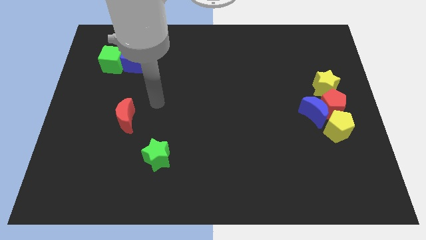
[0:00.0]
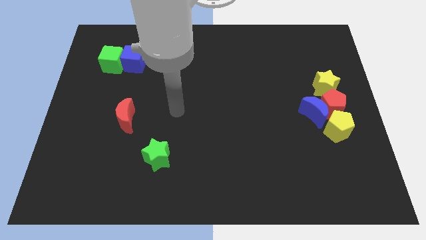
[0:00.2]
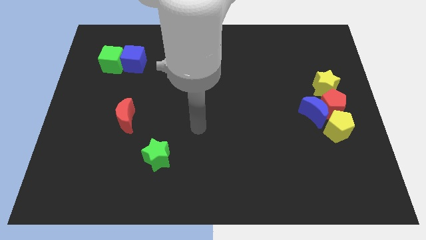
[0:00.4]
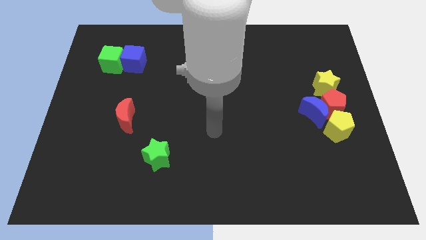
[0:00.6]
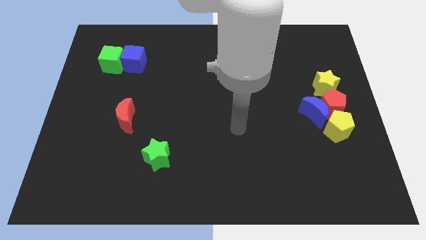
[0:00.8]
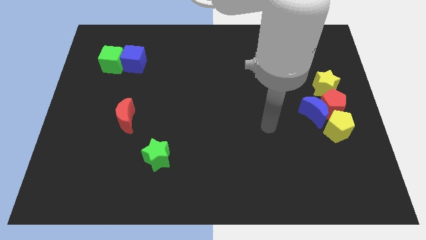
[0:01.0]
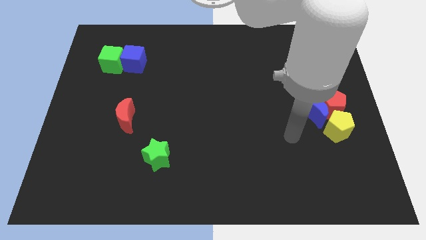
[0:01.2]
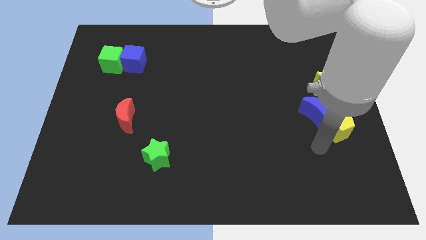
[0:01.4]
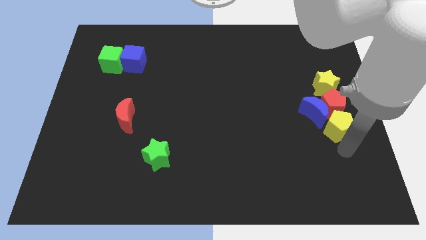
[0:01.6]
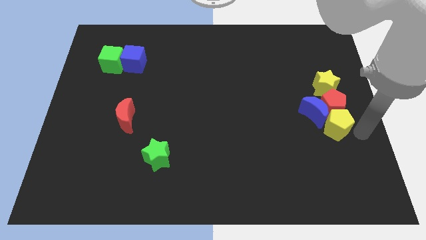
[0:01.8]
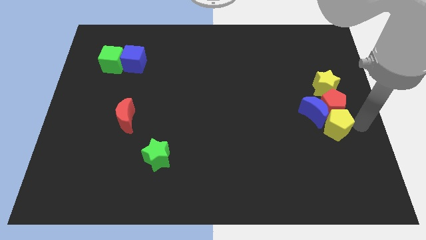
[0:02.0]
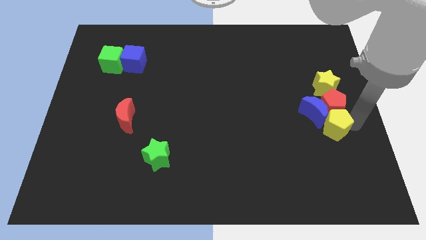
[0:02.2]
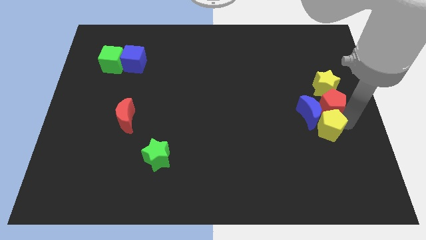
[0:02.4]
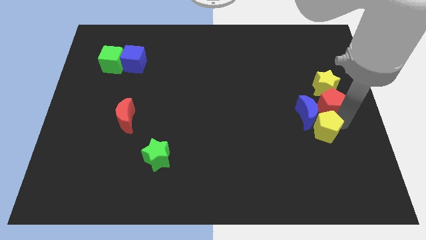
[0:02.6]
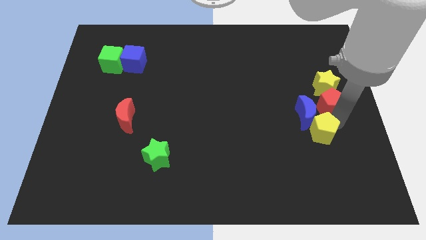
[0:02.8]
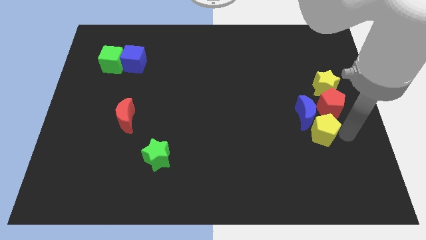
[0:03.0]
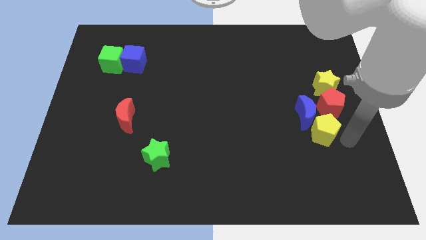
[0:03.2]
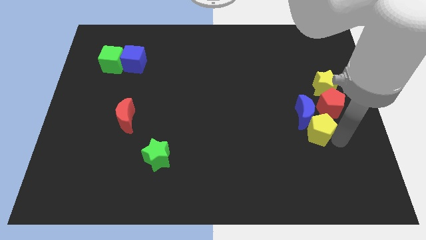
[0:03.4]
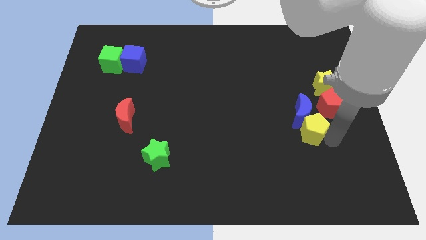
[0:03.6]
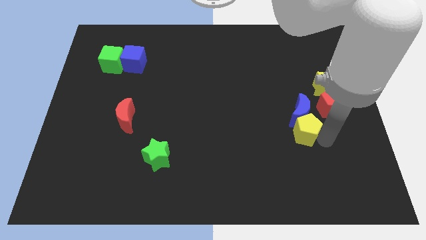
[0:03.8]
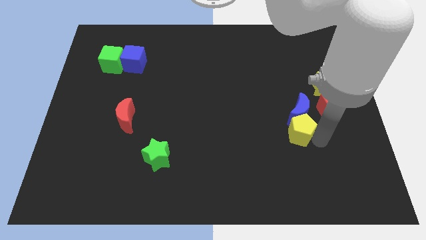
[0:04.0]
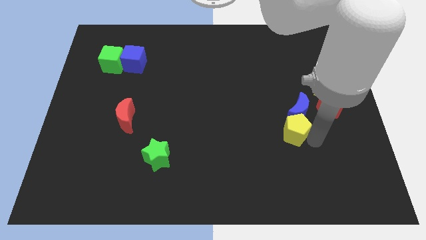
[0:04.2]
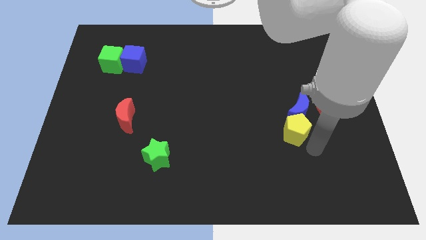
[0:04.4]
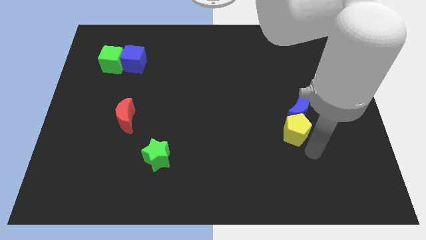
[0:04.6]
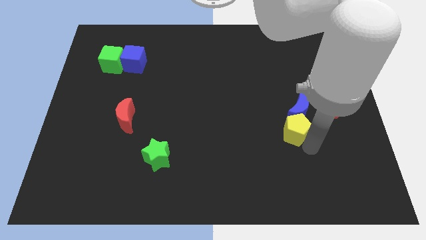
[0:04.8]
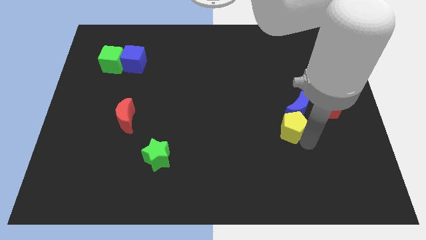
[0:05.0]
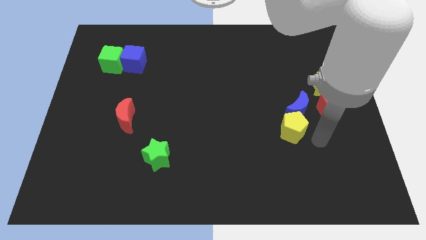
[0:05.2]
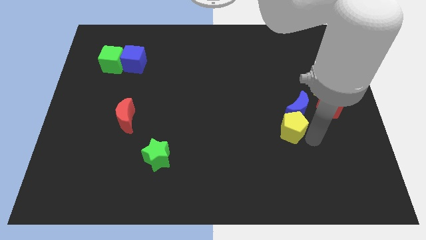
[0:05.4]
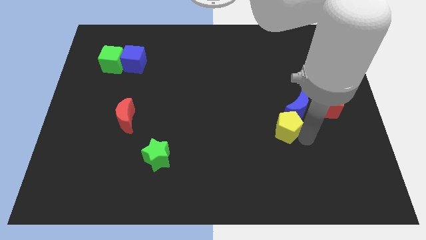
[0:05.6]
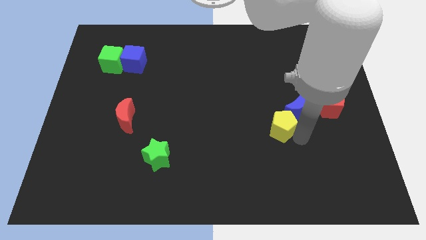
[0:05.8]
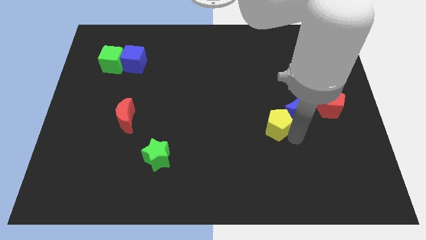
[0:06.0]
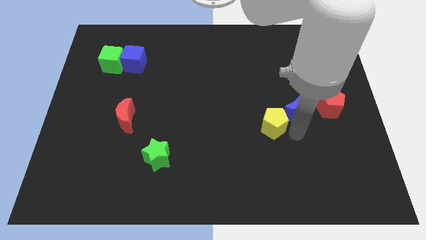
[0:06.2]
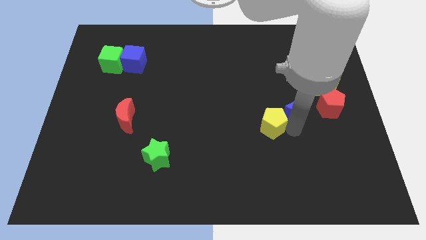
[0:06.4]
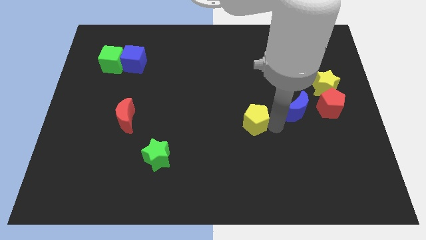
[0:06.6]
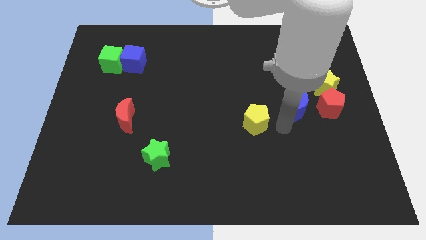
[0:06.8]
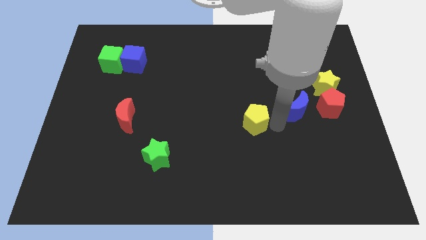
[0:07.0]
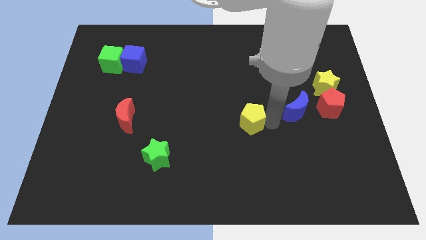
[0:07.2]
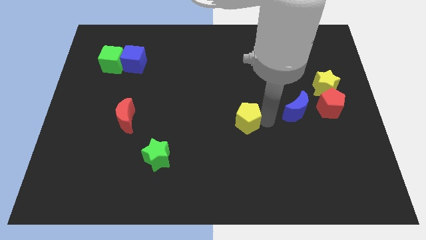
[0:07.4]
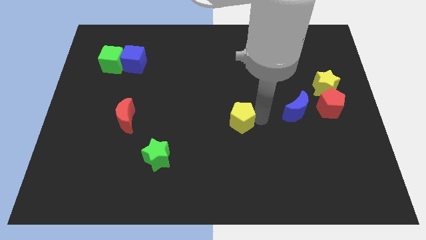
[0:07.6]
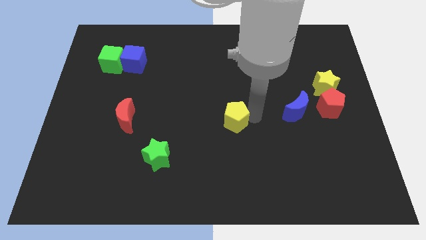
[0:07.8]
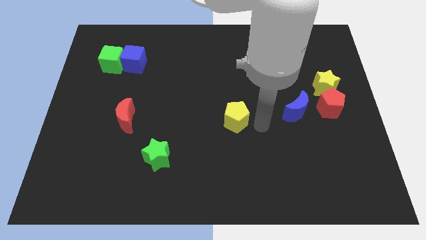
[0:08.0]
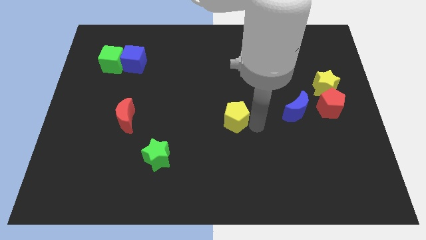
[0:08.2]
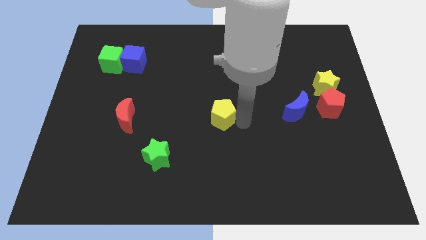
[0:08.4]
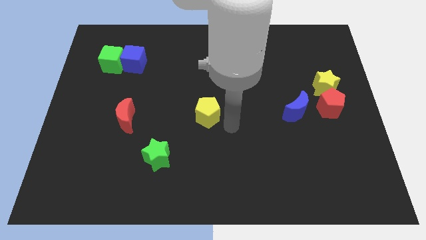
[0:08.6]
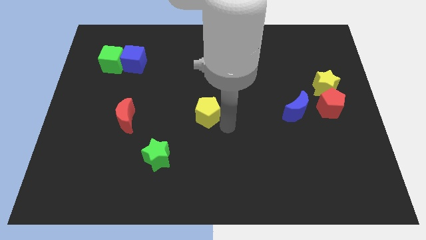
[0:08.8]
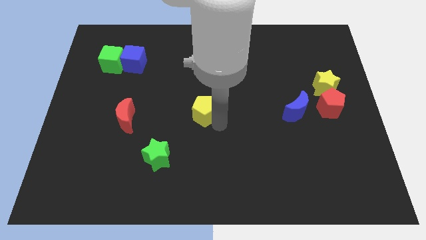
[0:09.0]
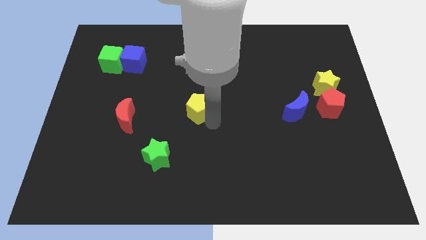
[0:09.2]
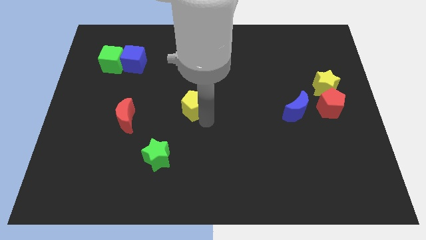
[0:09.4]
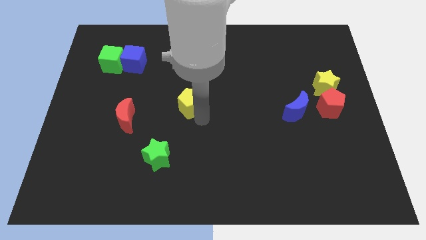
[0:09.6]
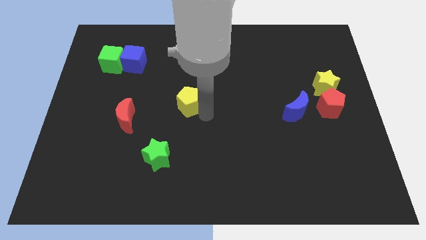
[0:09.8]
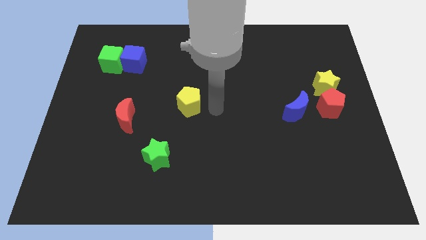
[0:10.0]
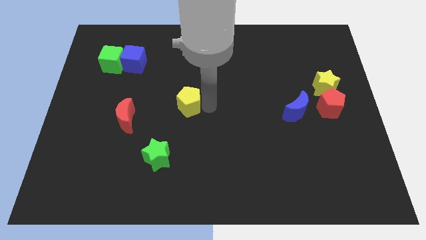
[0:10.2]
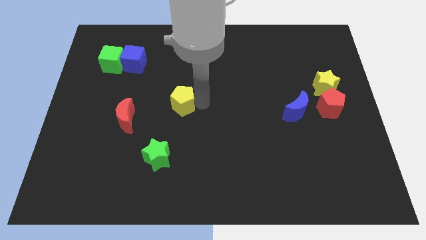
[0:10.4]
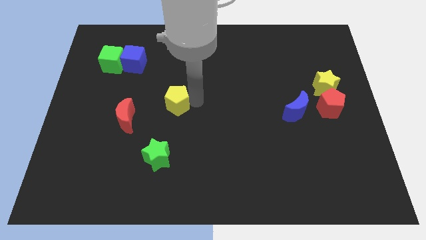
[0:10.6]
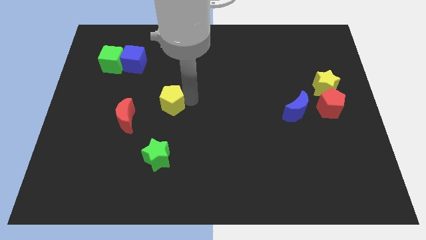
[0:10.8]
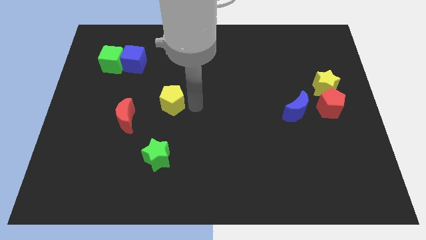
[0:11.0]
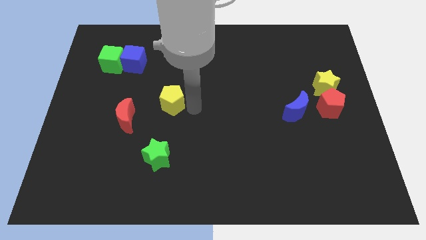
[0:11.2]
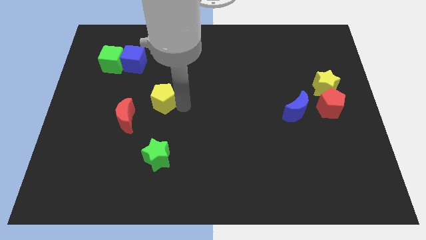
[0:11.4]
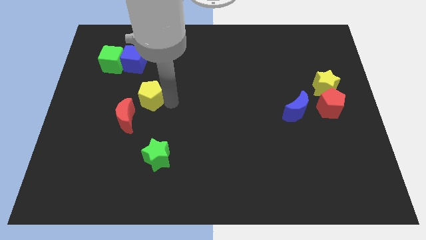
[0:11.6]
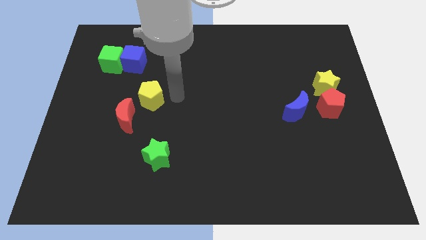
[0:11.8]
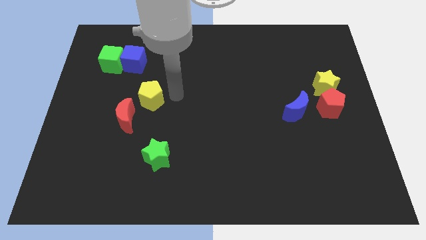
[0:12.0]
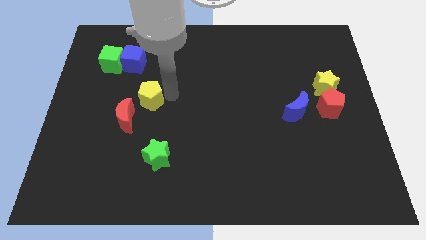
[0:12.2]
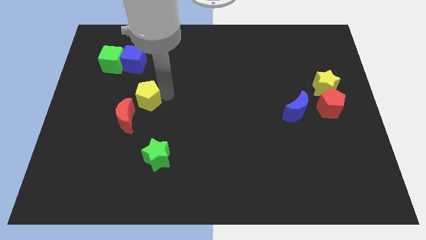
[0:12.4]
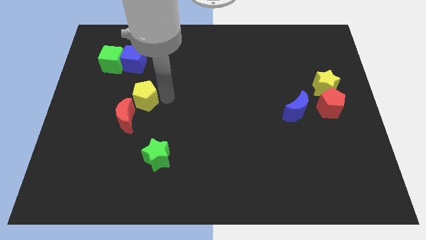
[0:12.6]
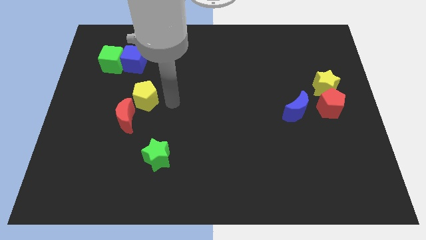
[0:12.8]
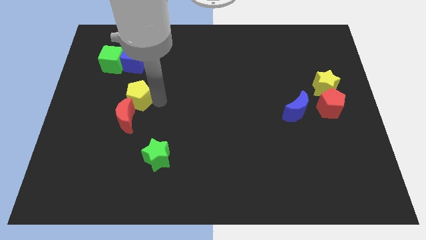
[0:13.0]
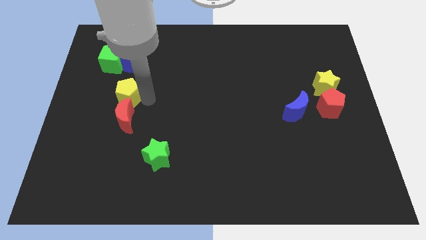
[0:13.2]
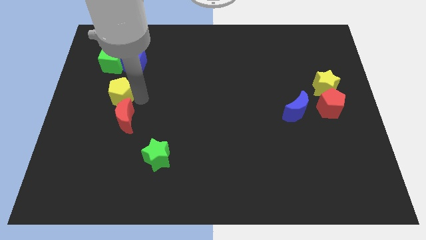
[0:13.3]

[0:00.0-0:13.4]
slide the yellow pentagon to the bottom side of the green cube

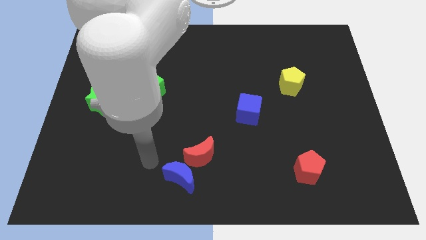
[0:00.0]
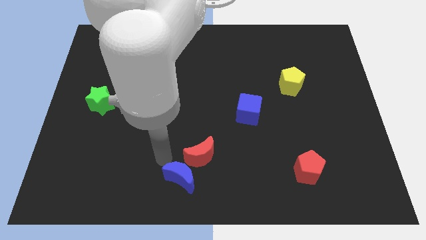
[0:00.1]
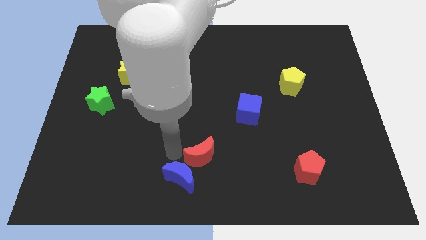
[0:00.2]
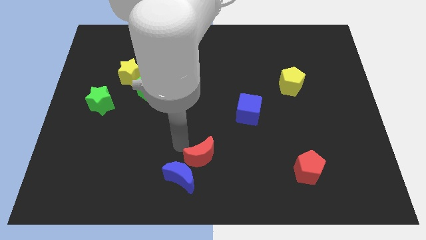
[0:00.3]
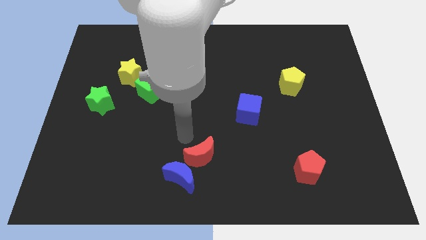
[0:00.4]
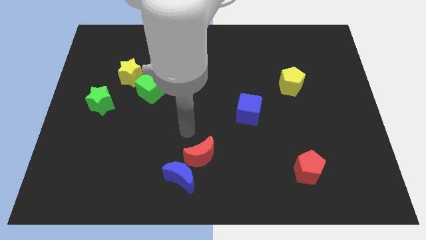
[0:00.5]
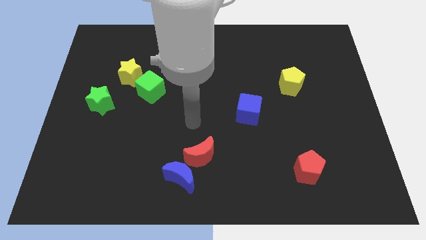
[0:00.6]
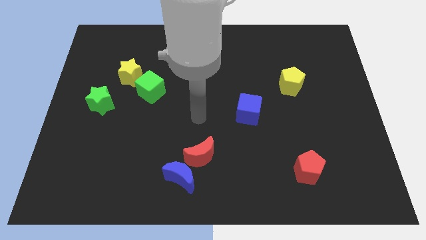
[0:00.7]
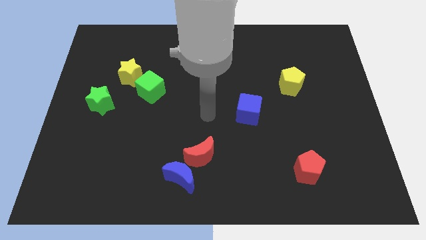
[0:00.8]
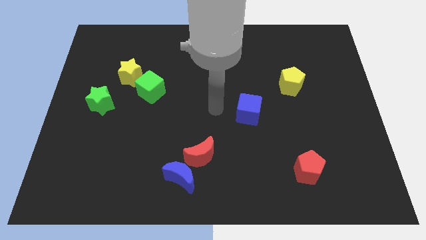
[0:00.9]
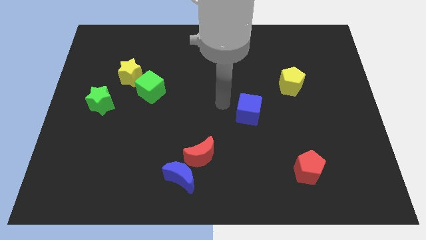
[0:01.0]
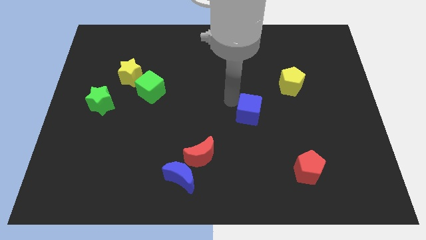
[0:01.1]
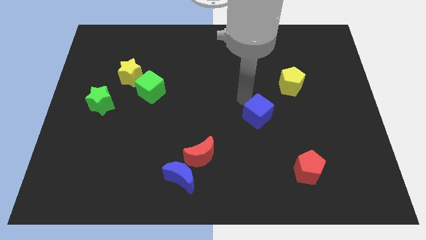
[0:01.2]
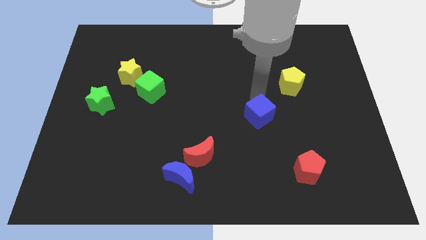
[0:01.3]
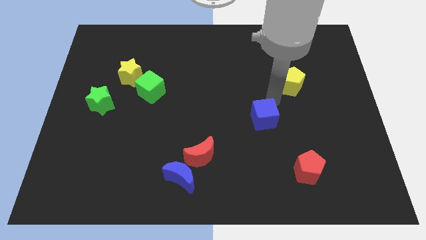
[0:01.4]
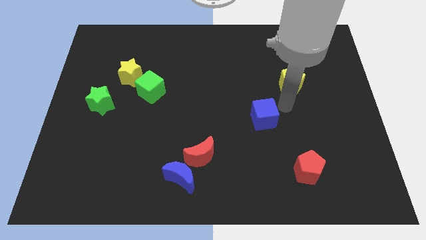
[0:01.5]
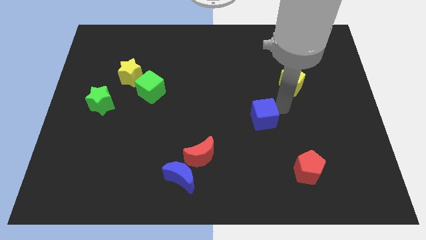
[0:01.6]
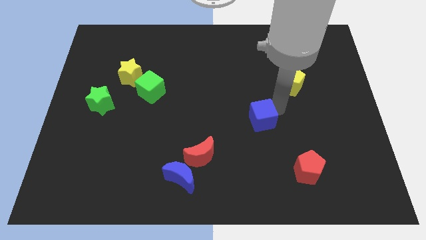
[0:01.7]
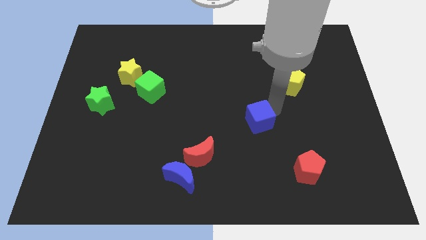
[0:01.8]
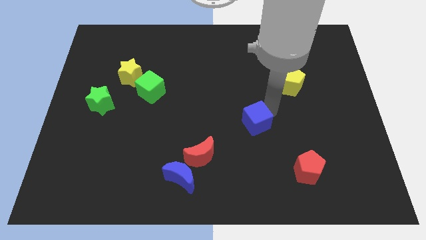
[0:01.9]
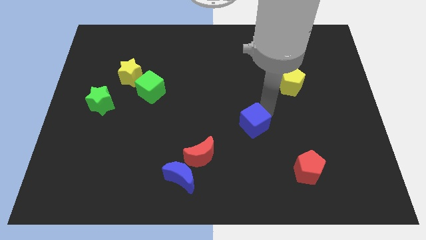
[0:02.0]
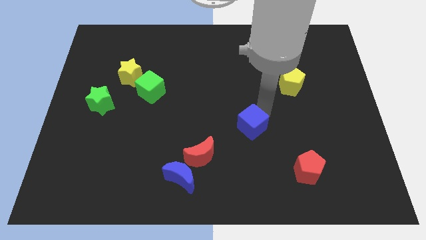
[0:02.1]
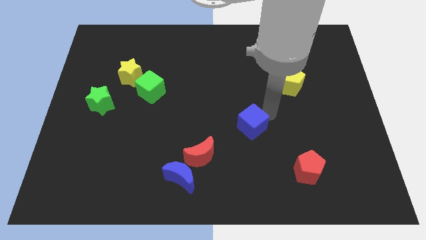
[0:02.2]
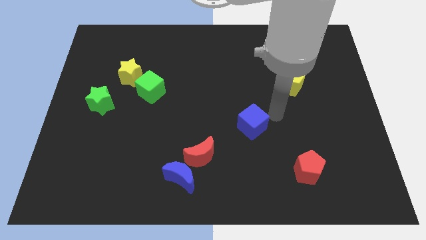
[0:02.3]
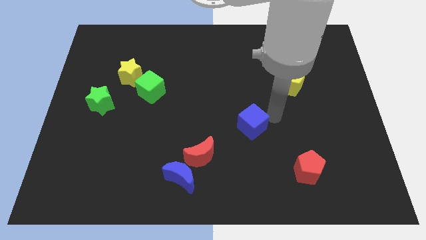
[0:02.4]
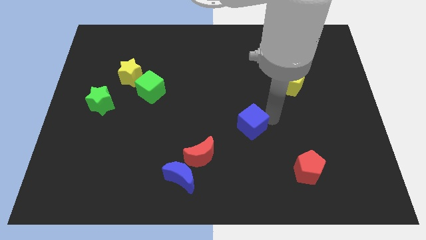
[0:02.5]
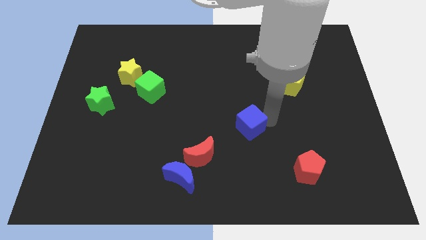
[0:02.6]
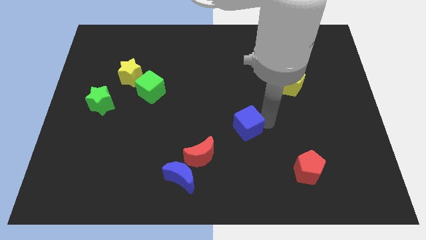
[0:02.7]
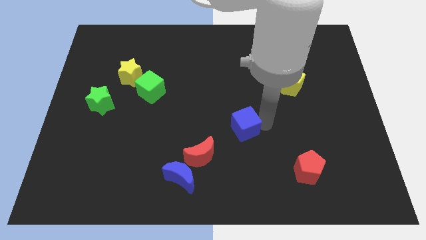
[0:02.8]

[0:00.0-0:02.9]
push the blue cube diagonally up and to the right of the red moon
